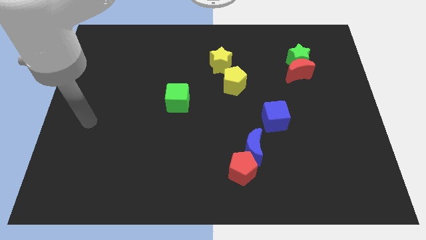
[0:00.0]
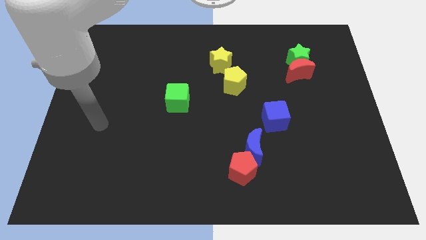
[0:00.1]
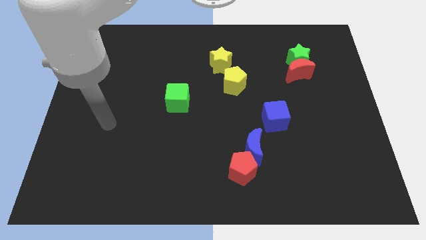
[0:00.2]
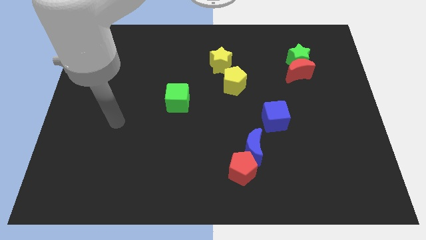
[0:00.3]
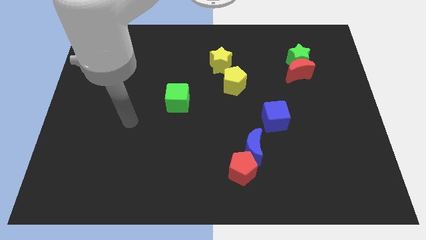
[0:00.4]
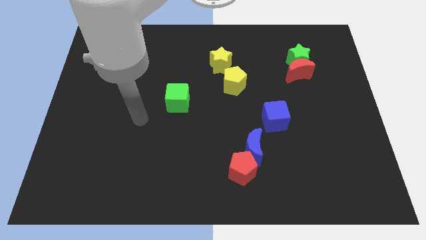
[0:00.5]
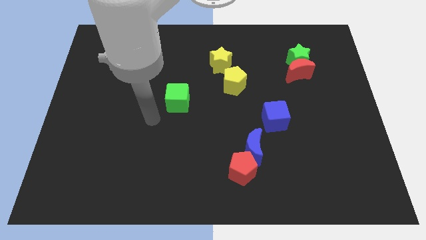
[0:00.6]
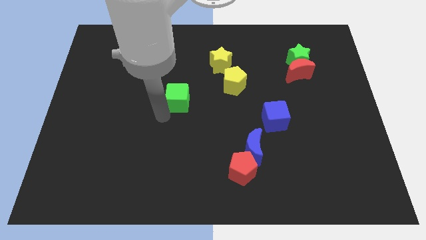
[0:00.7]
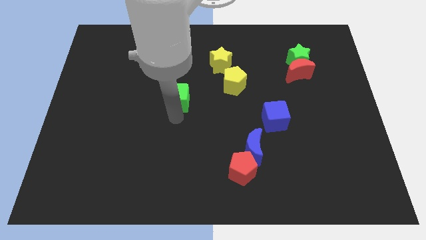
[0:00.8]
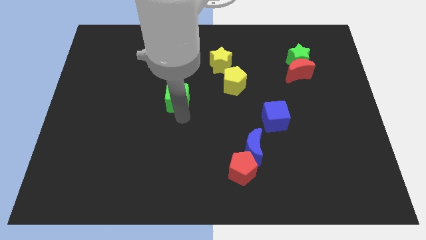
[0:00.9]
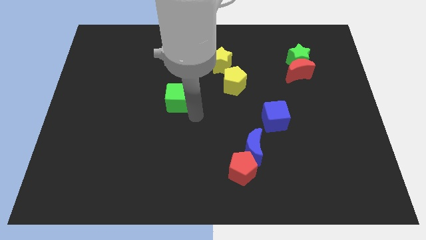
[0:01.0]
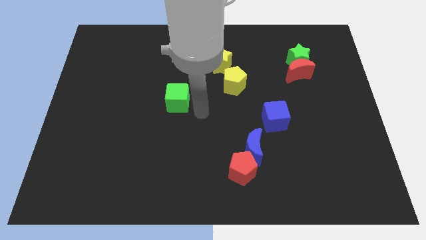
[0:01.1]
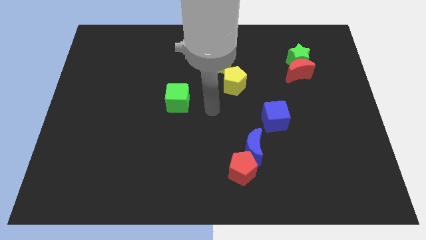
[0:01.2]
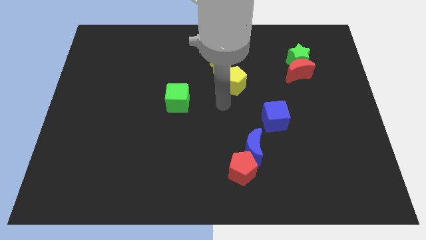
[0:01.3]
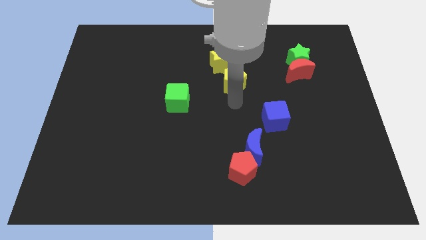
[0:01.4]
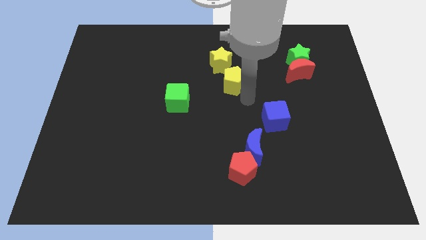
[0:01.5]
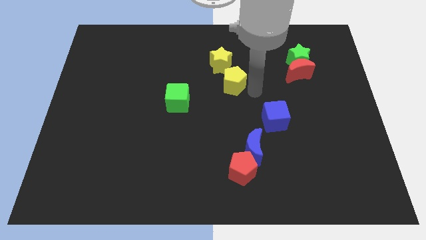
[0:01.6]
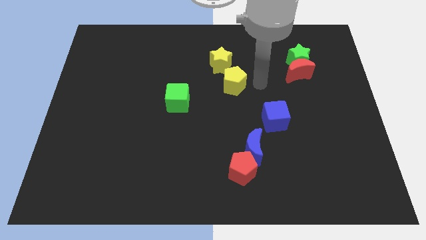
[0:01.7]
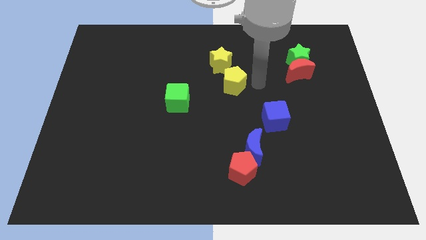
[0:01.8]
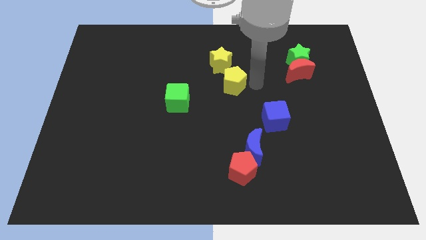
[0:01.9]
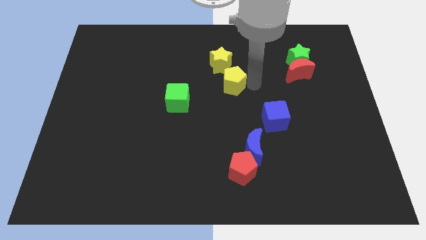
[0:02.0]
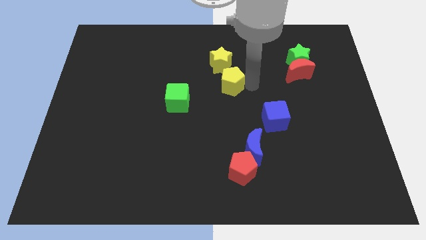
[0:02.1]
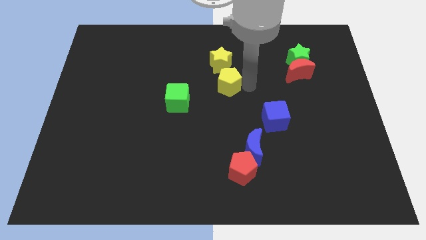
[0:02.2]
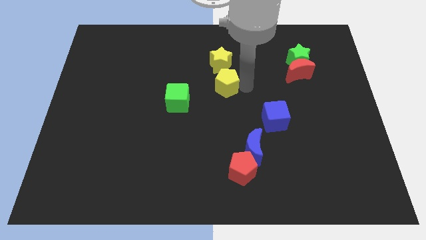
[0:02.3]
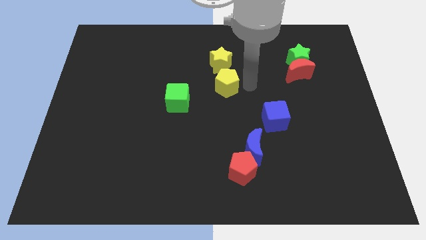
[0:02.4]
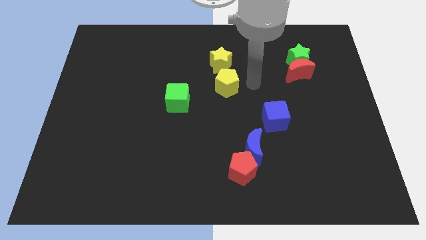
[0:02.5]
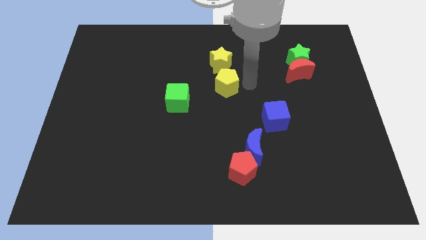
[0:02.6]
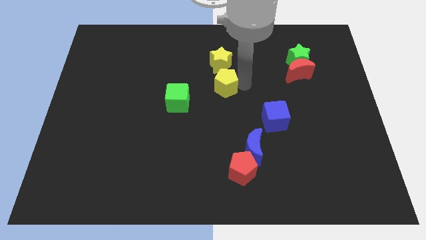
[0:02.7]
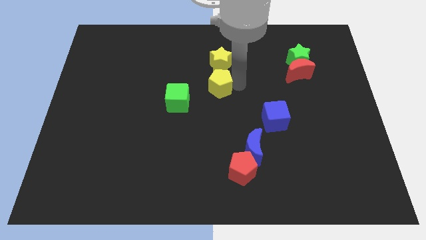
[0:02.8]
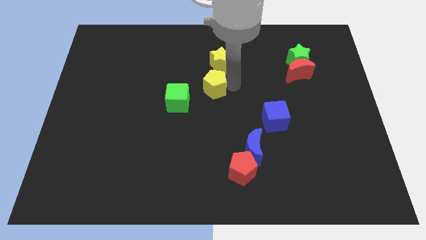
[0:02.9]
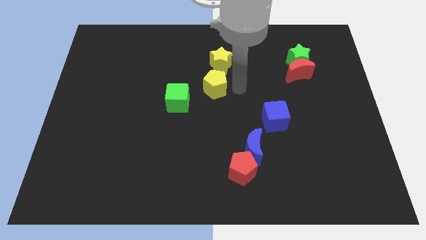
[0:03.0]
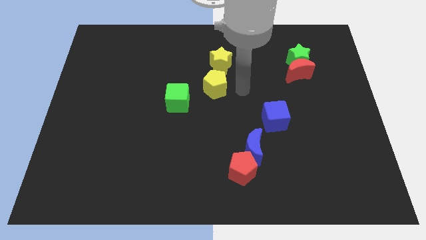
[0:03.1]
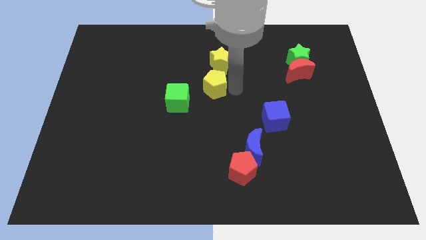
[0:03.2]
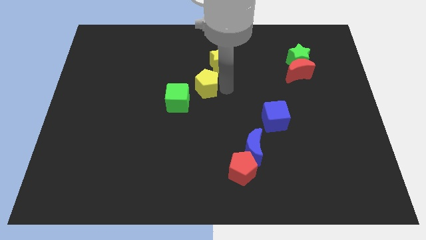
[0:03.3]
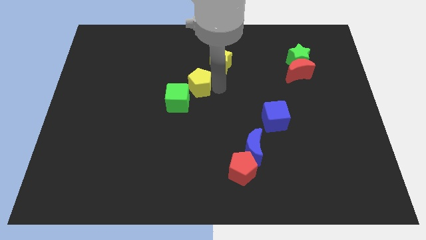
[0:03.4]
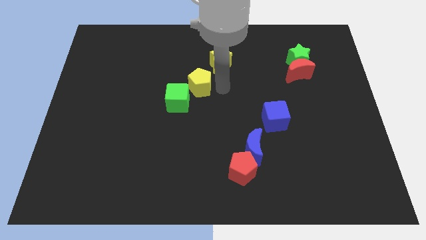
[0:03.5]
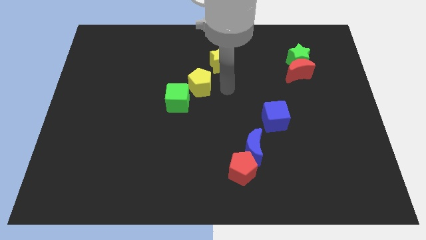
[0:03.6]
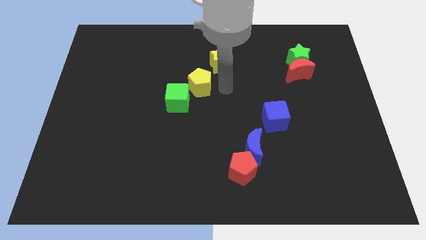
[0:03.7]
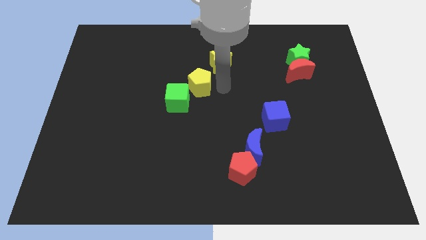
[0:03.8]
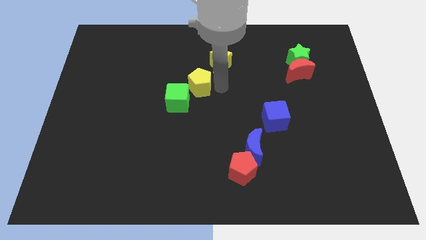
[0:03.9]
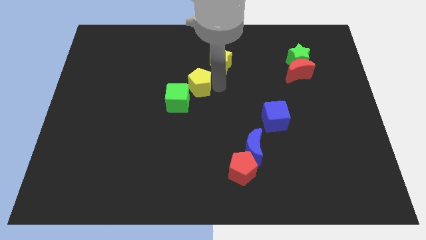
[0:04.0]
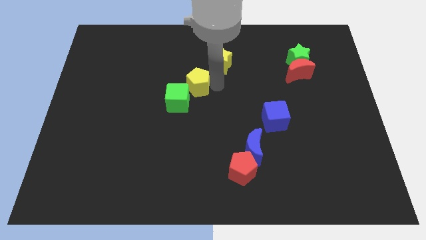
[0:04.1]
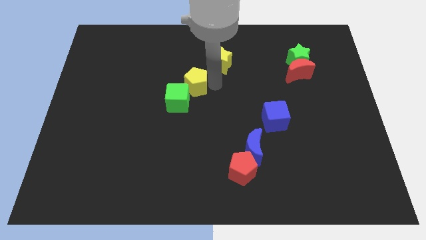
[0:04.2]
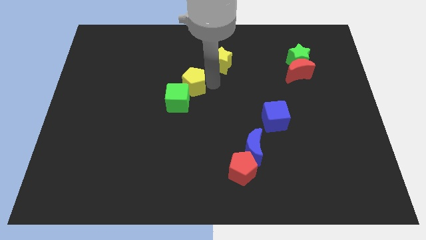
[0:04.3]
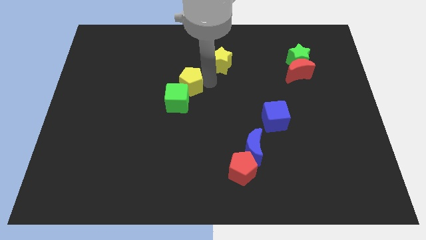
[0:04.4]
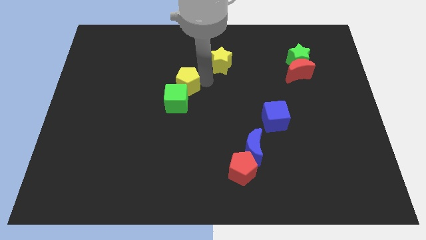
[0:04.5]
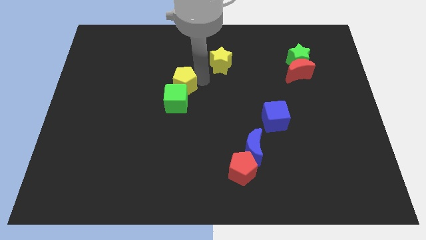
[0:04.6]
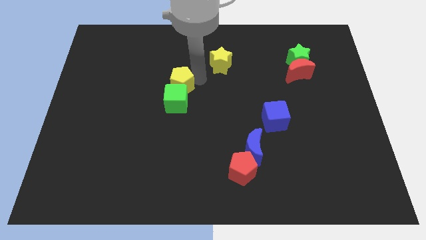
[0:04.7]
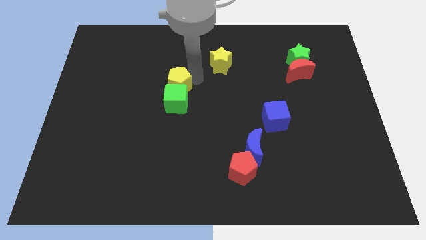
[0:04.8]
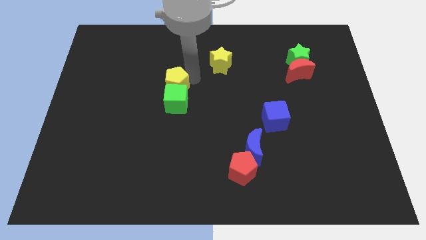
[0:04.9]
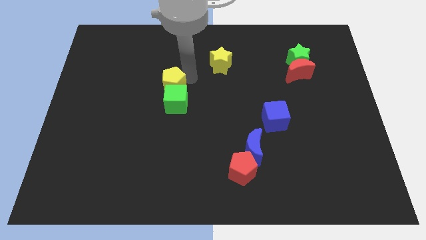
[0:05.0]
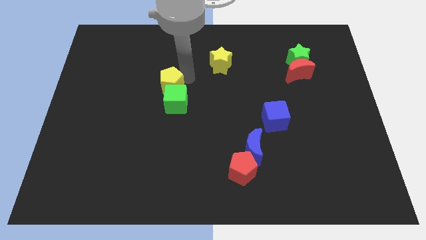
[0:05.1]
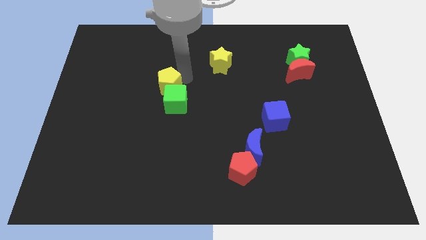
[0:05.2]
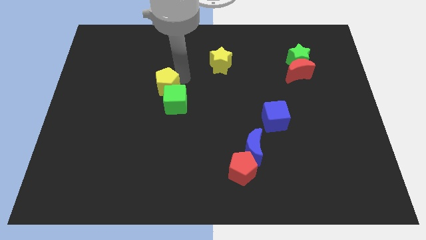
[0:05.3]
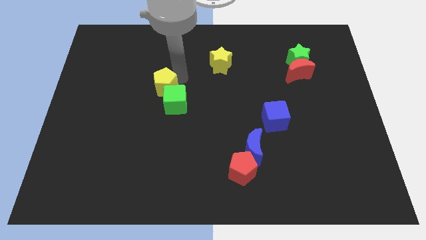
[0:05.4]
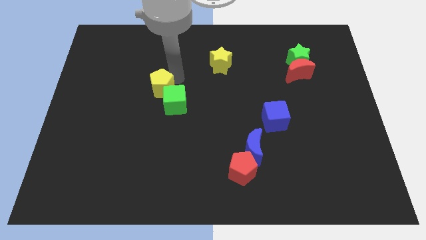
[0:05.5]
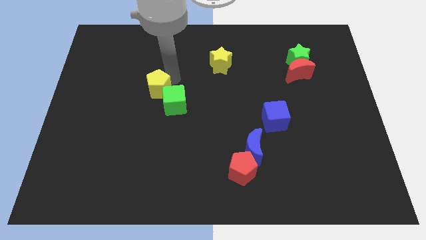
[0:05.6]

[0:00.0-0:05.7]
slide the yellow pentagon left of the green cube

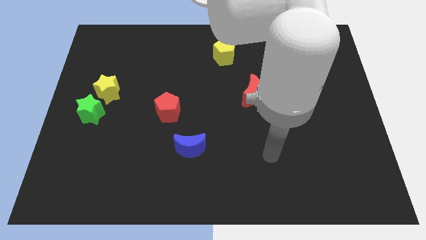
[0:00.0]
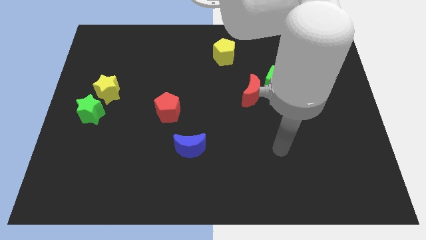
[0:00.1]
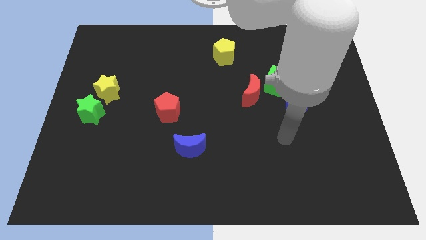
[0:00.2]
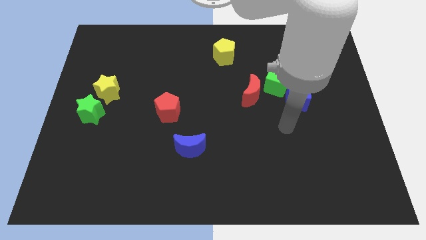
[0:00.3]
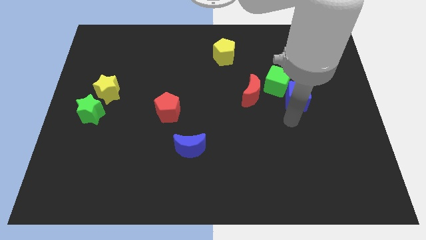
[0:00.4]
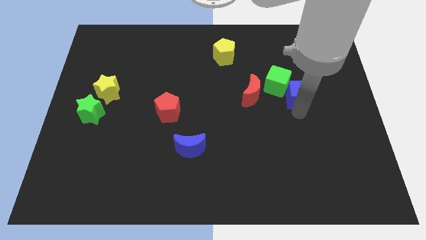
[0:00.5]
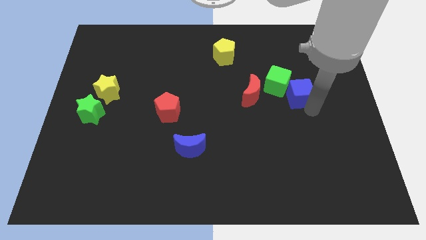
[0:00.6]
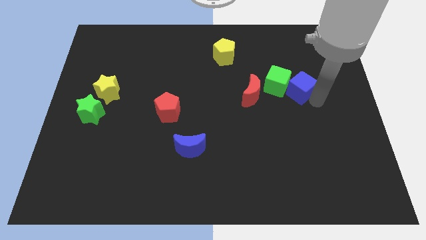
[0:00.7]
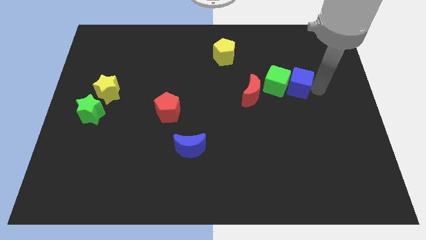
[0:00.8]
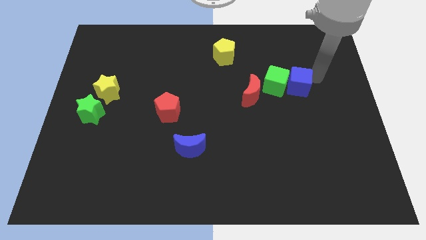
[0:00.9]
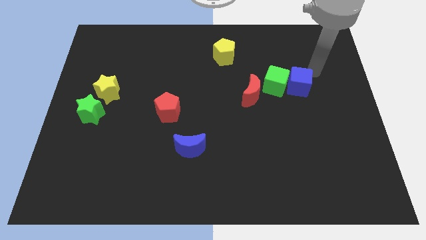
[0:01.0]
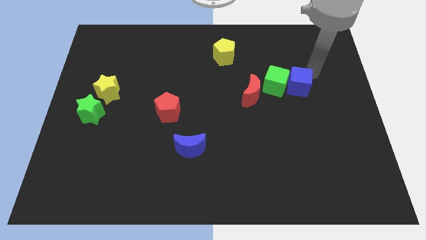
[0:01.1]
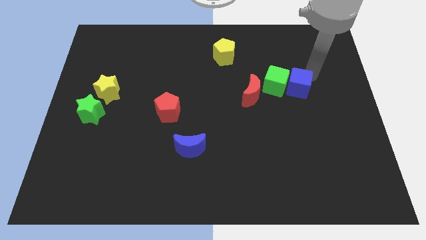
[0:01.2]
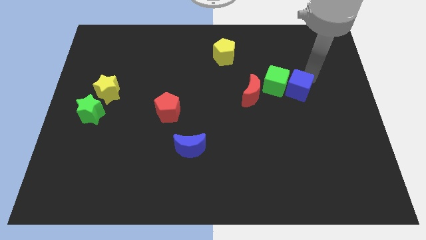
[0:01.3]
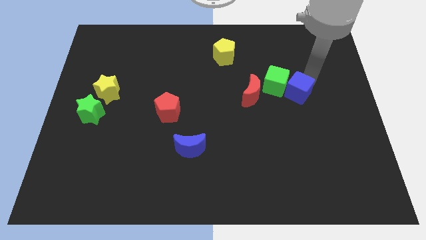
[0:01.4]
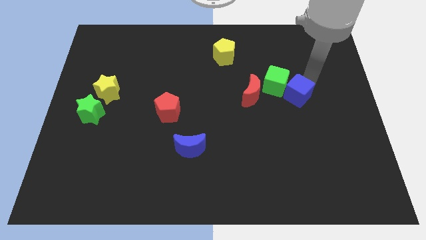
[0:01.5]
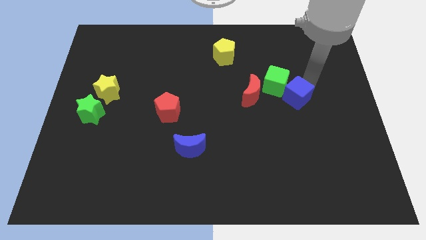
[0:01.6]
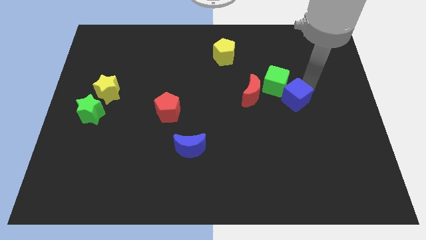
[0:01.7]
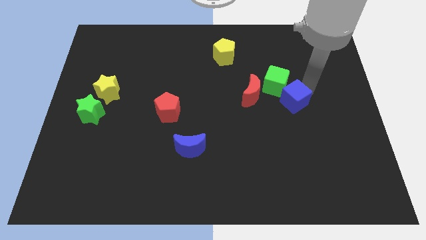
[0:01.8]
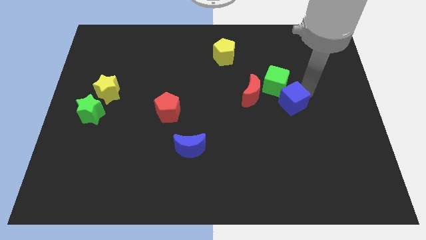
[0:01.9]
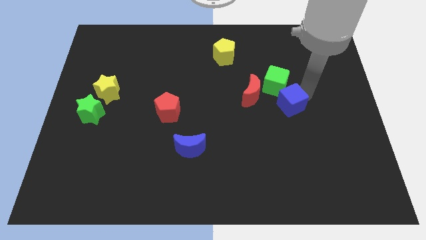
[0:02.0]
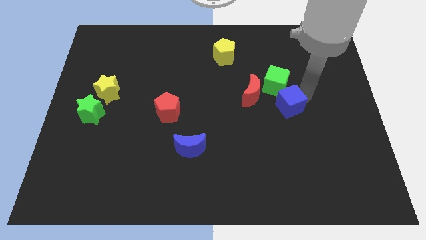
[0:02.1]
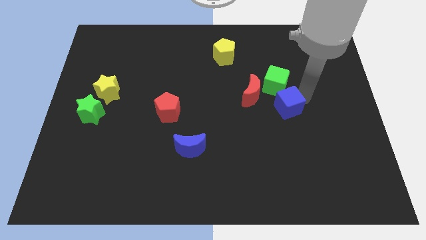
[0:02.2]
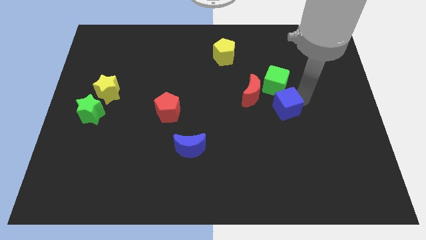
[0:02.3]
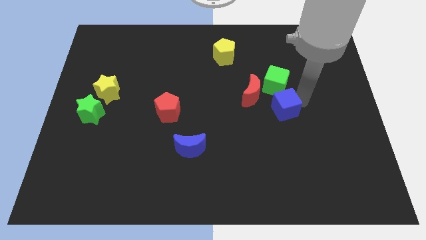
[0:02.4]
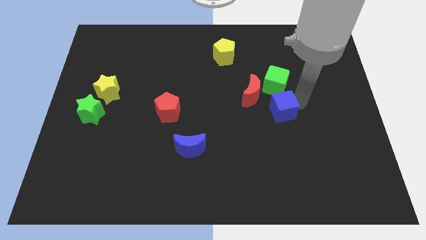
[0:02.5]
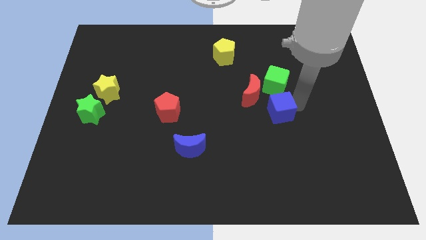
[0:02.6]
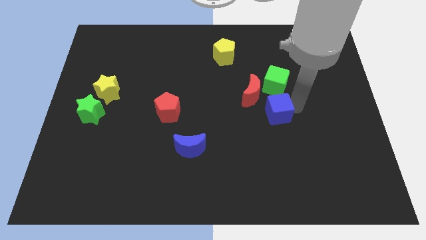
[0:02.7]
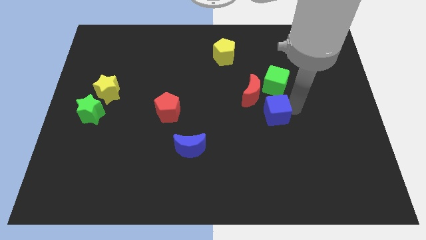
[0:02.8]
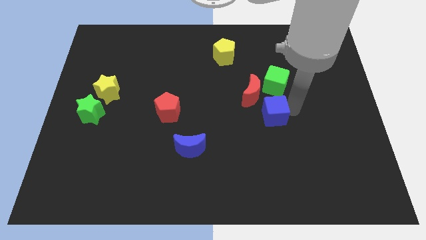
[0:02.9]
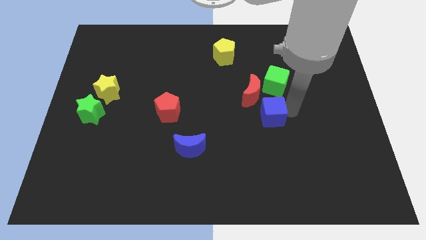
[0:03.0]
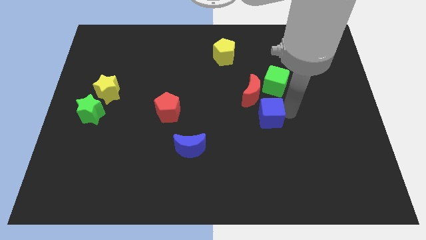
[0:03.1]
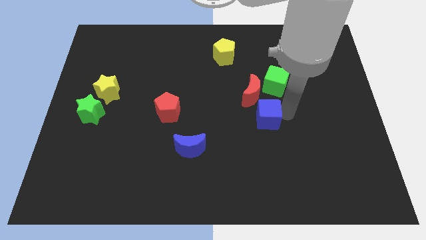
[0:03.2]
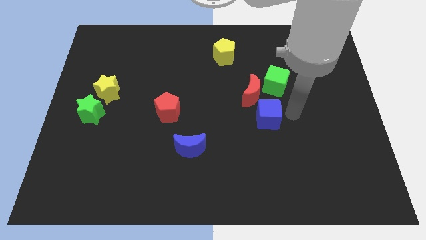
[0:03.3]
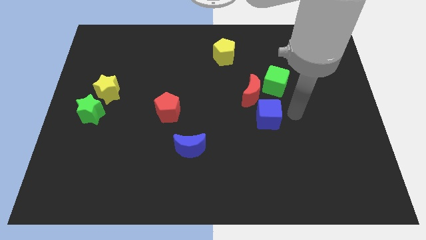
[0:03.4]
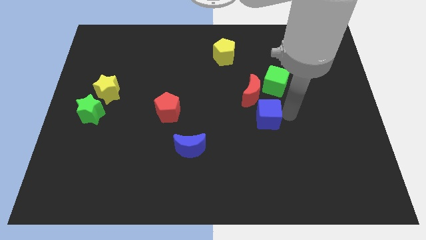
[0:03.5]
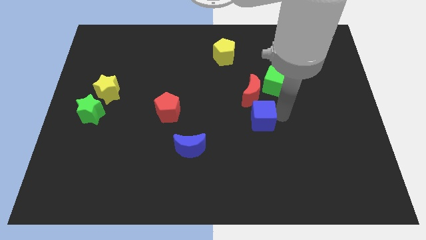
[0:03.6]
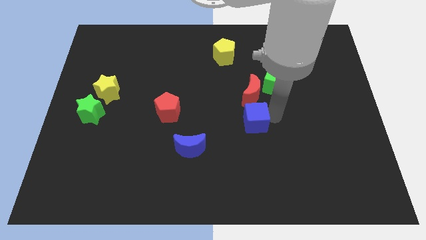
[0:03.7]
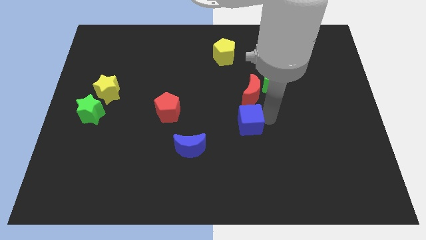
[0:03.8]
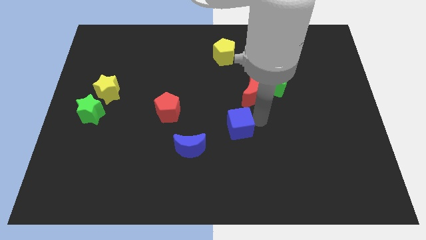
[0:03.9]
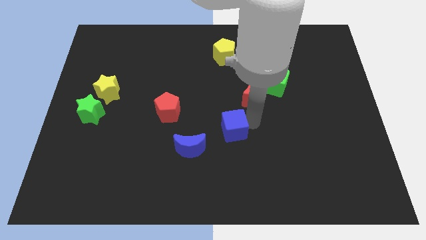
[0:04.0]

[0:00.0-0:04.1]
slide the blue cube diagonally up and to the right of the blue moon
